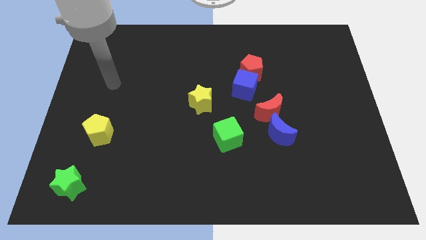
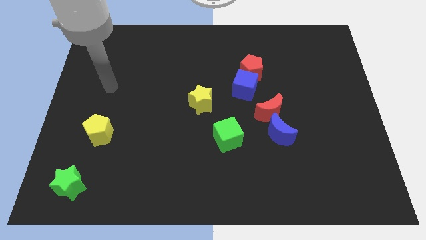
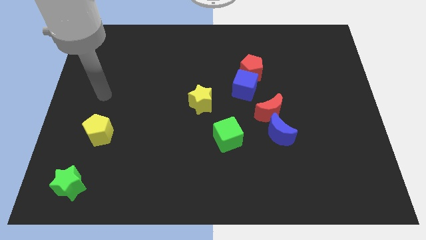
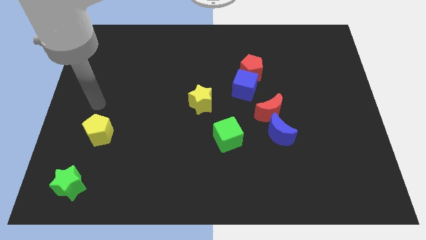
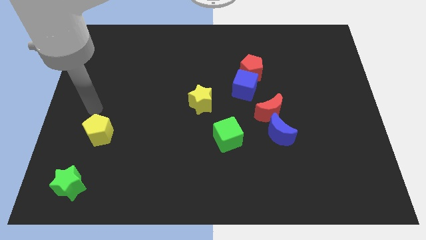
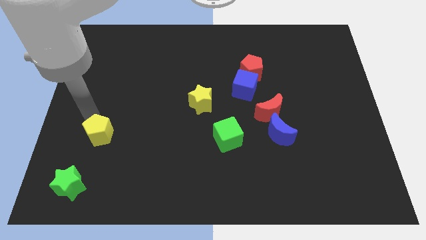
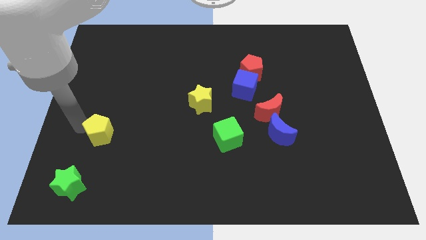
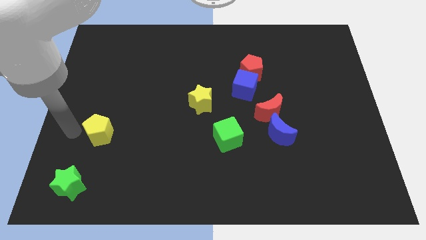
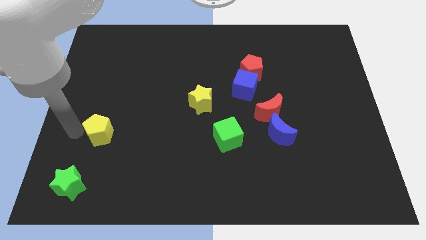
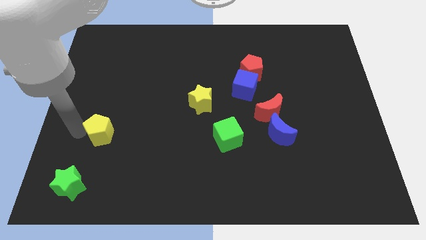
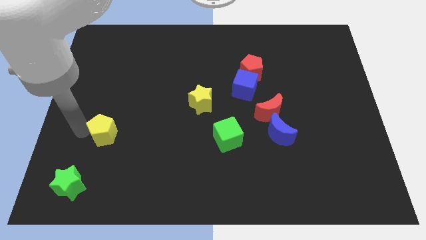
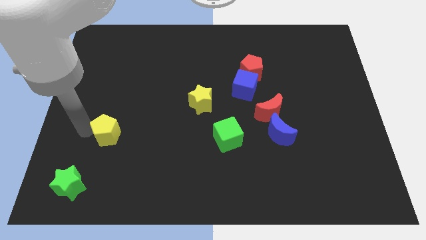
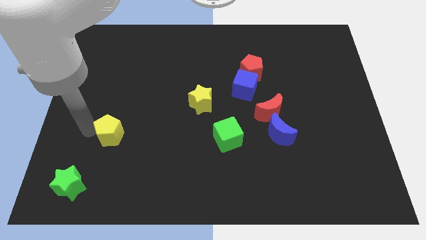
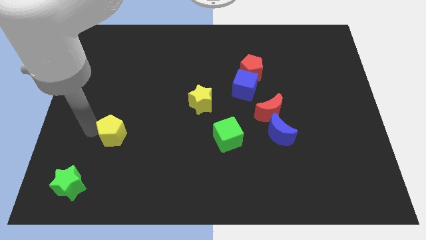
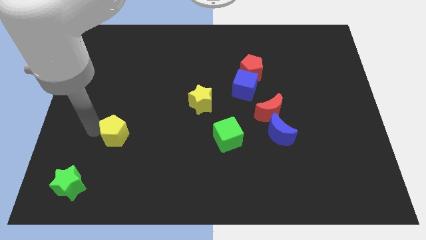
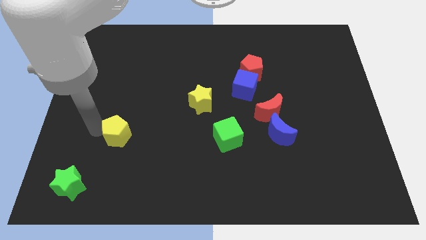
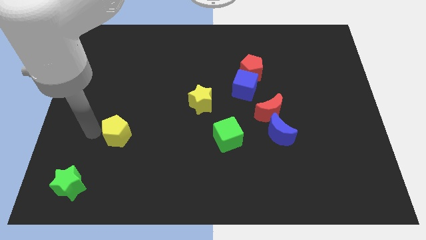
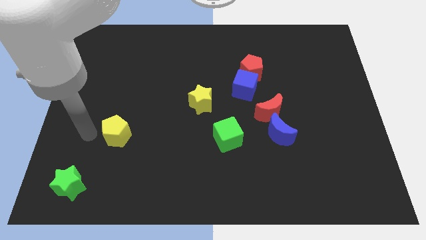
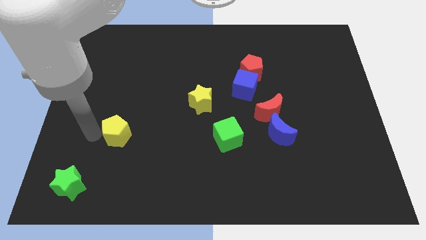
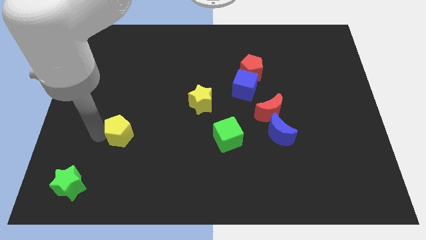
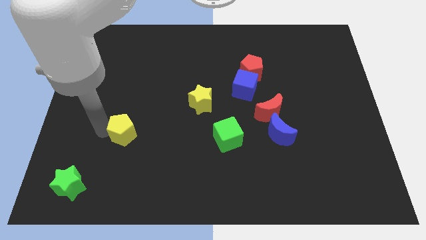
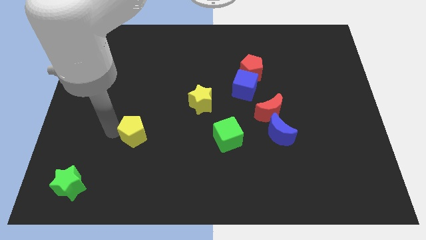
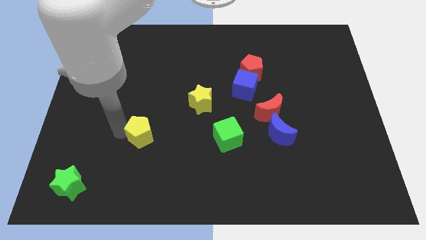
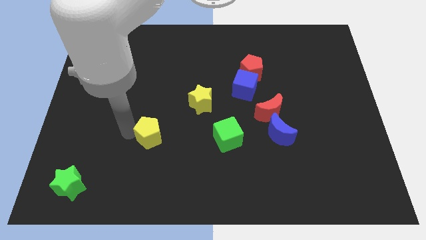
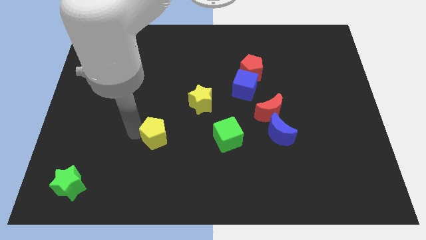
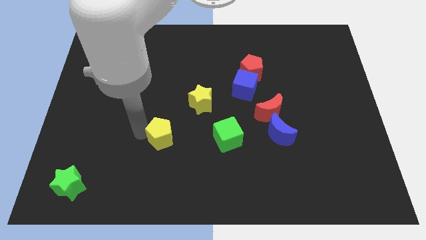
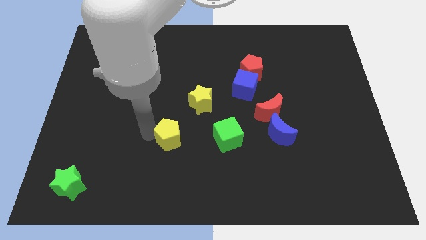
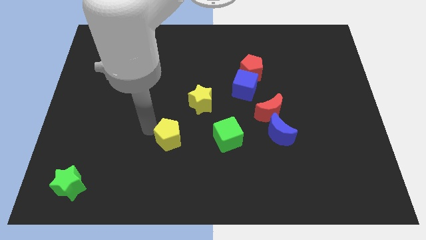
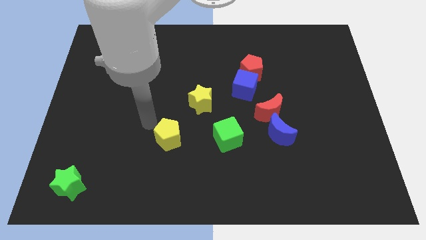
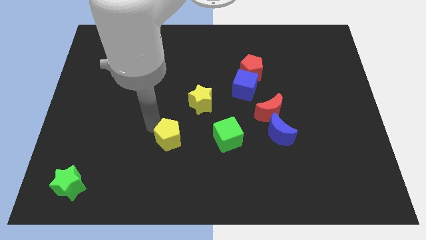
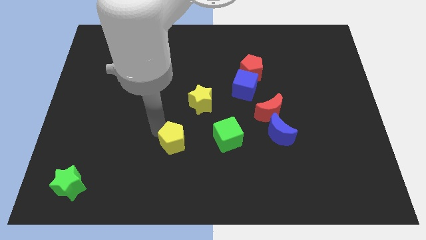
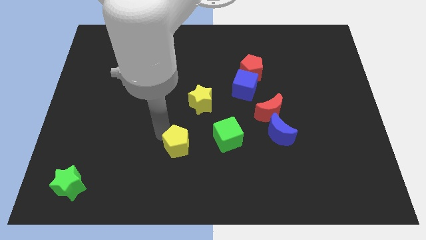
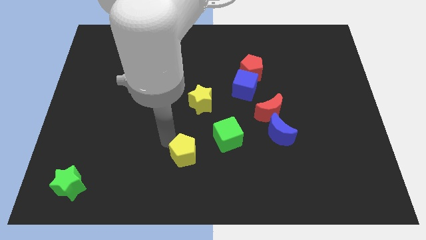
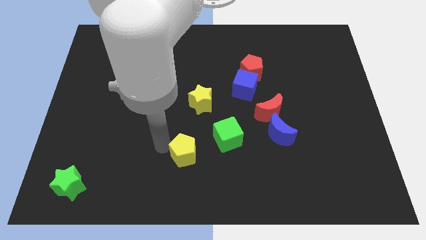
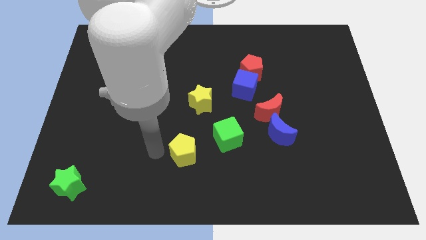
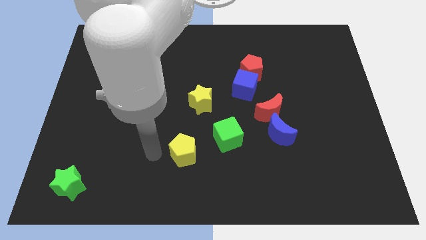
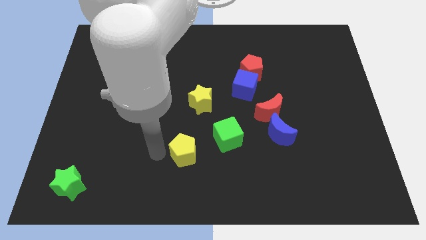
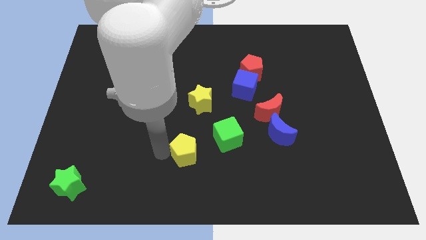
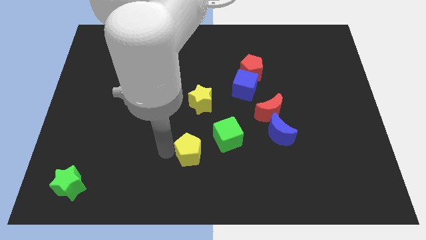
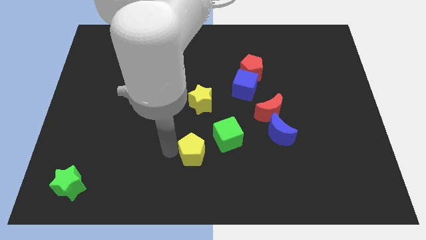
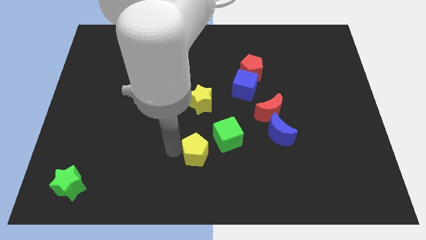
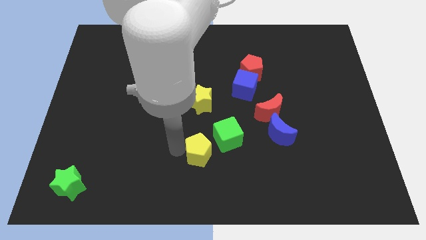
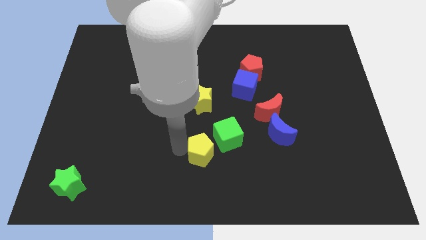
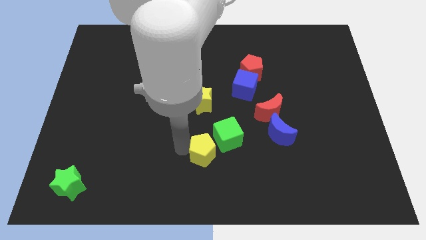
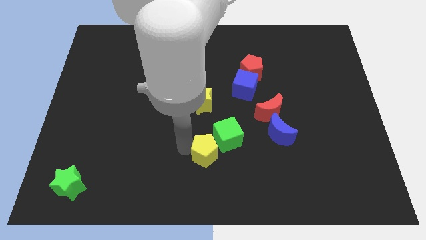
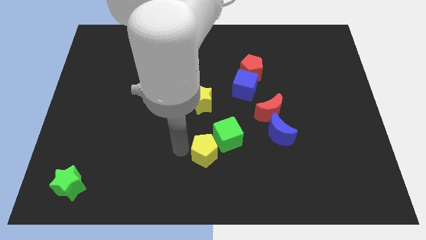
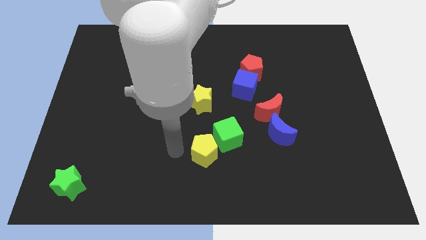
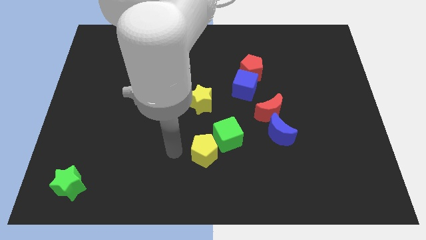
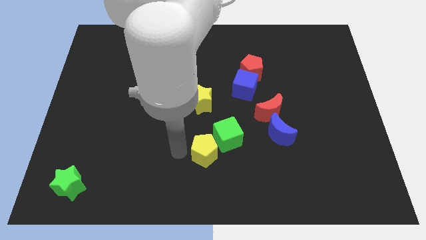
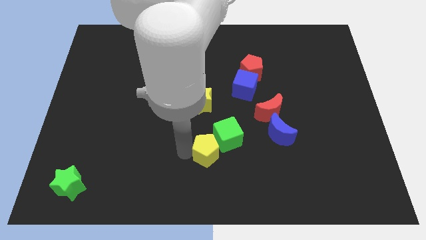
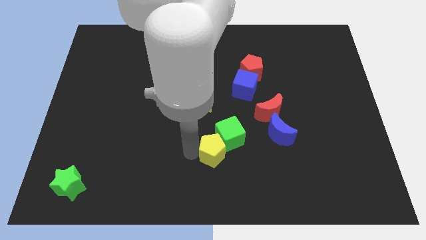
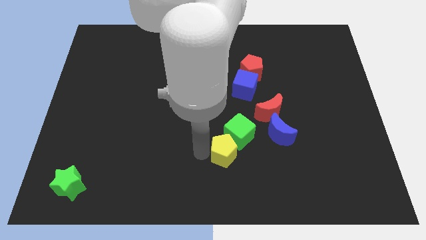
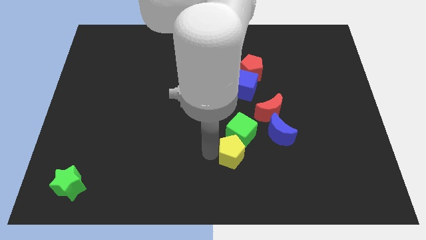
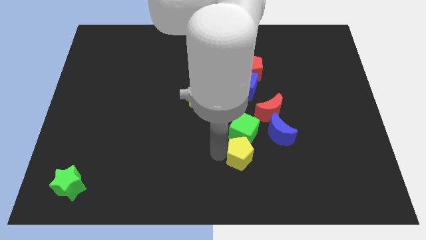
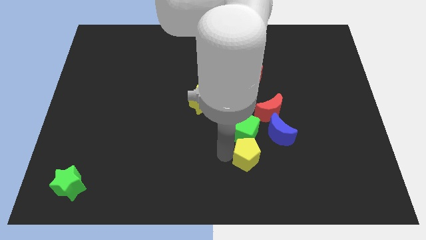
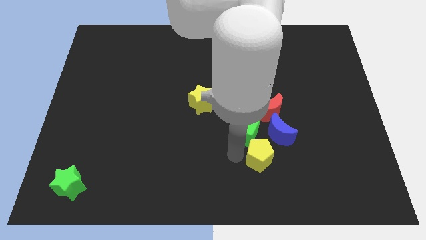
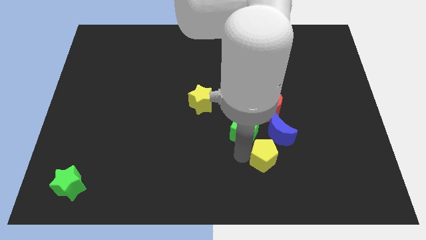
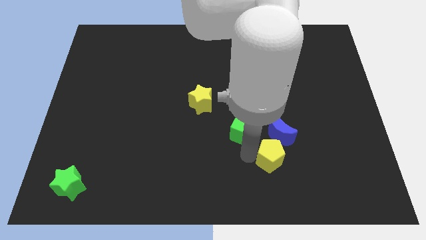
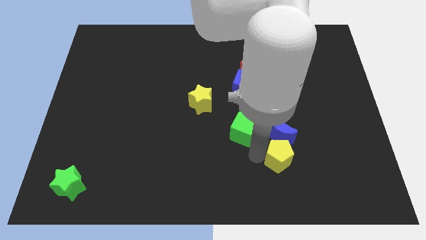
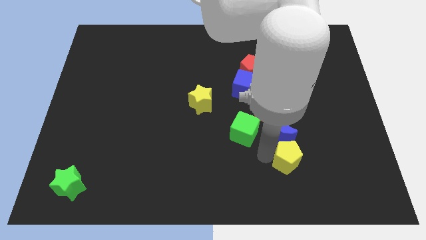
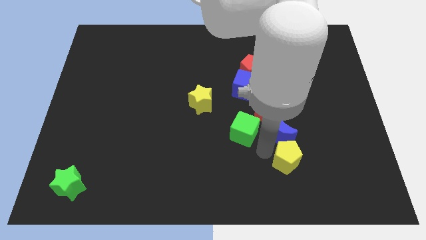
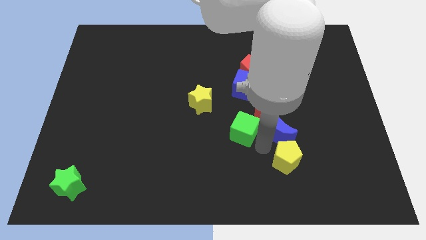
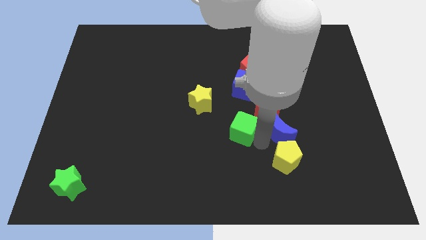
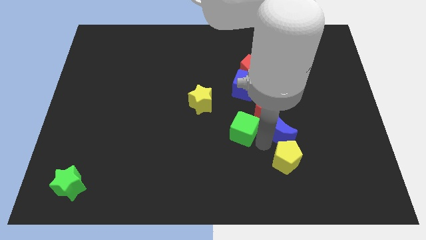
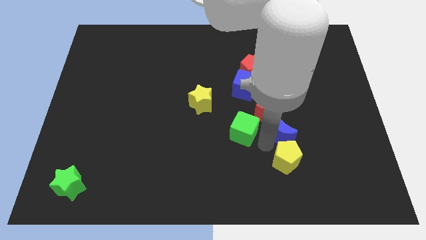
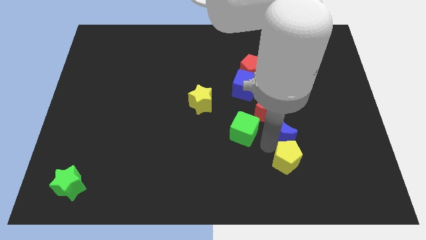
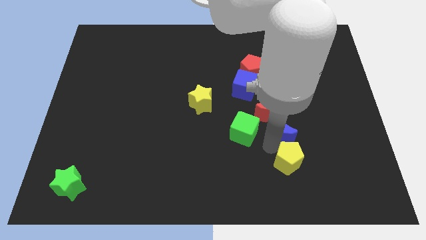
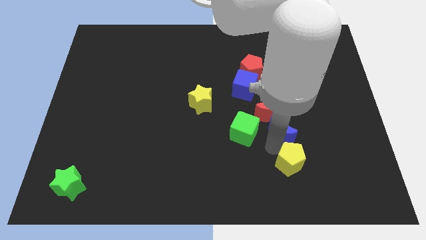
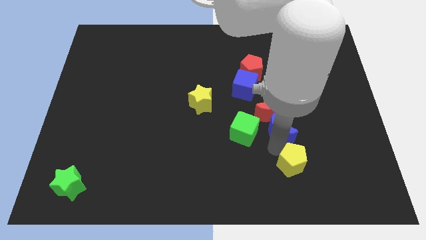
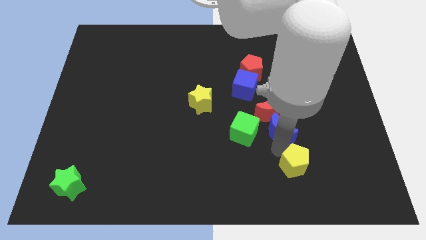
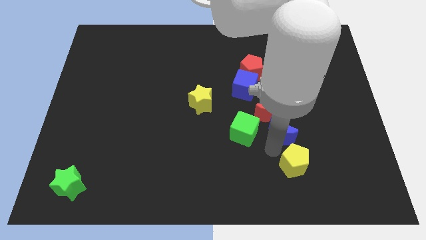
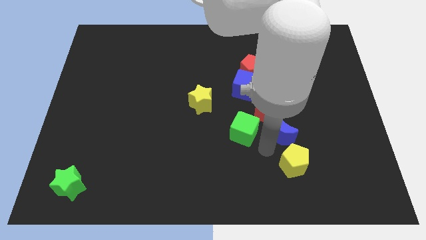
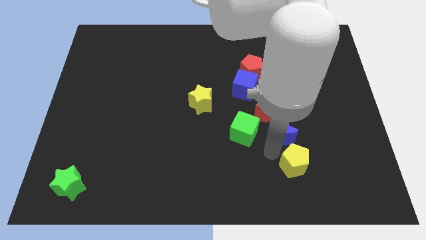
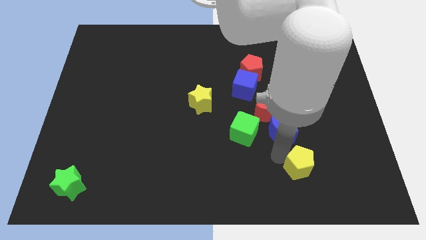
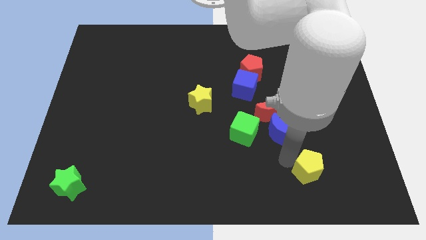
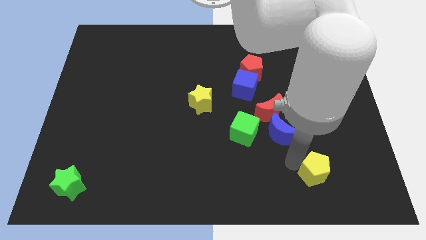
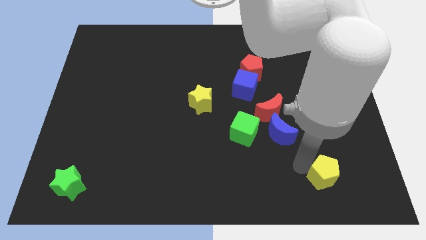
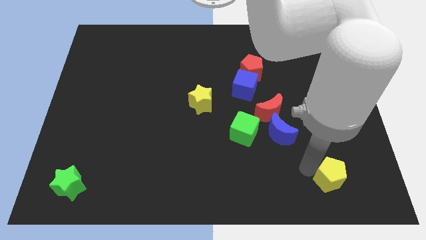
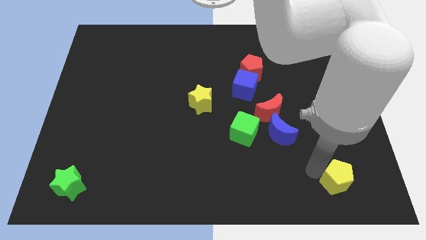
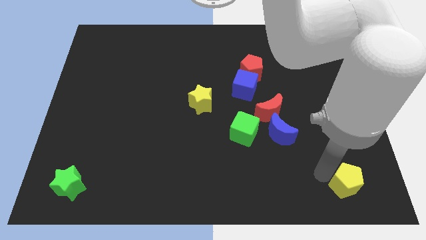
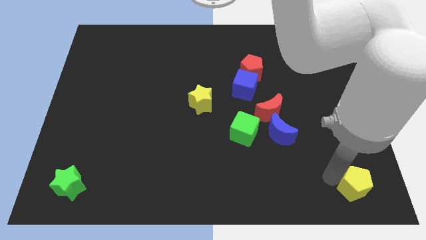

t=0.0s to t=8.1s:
slide the yellow pentagon to the bottom right corner
